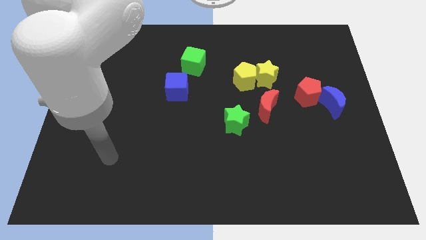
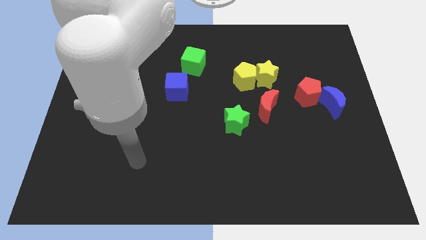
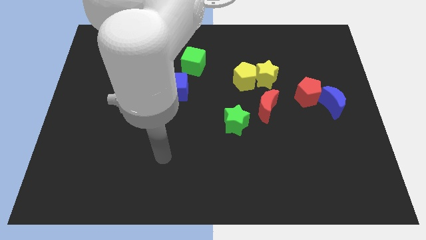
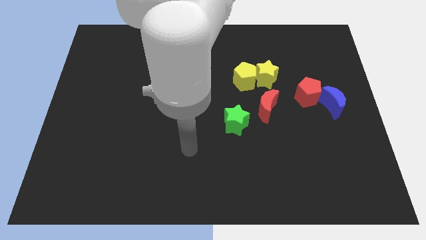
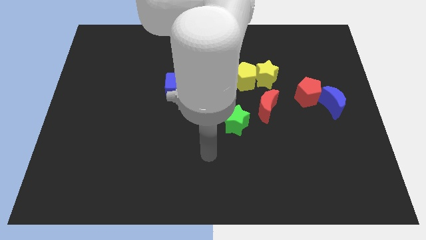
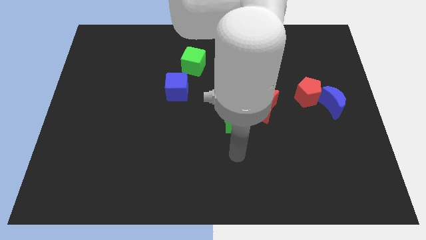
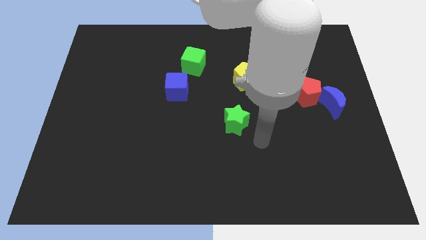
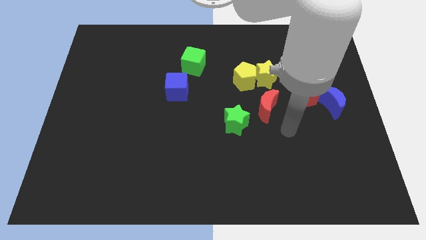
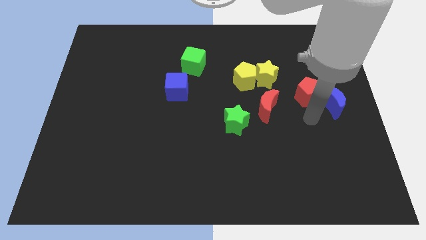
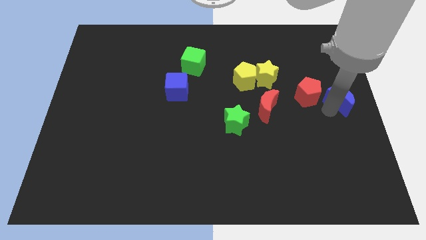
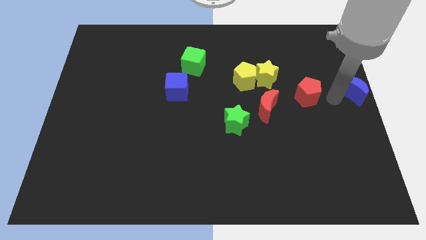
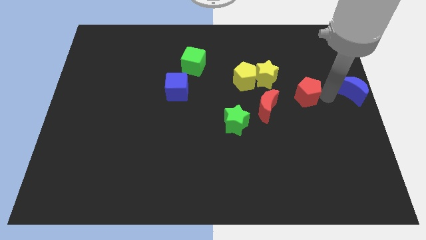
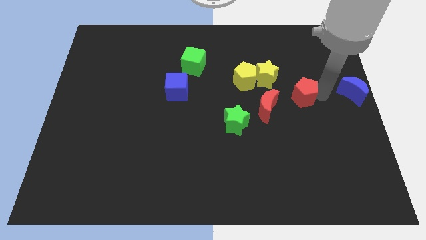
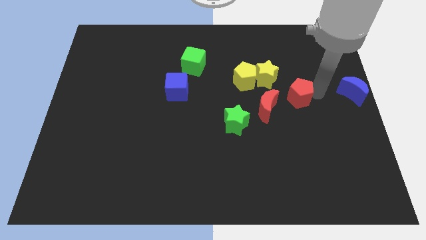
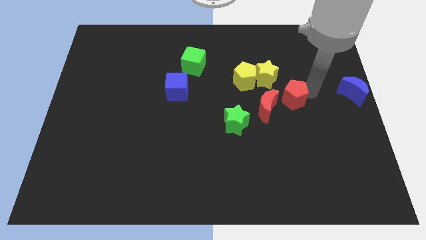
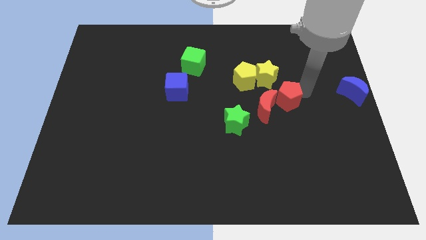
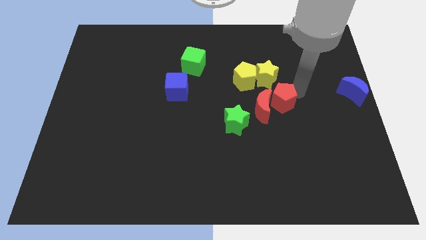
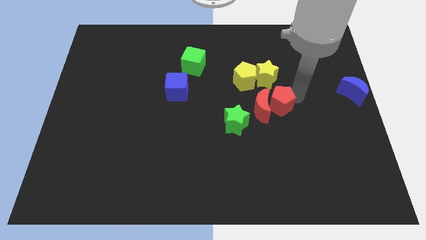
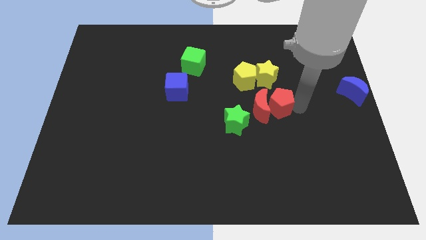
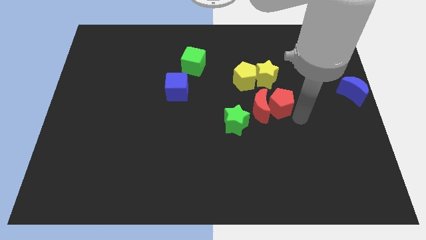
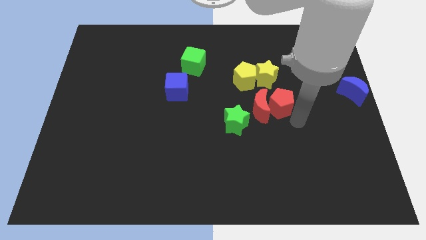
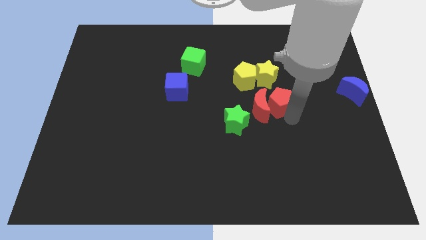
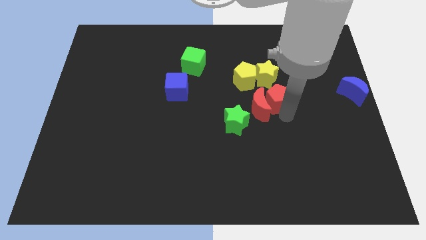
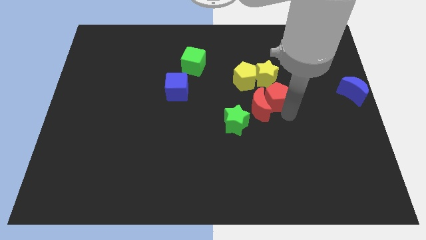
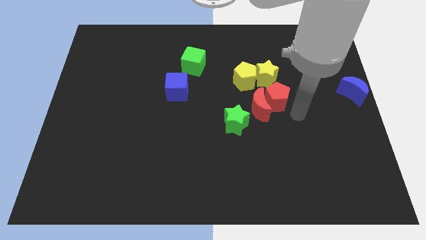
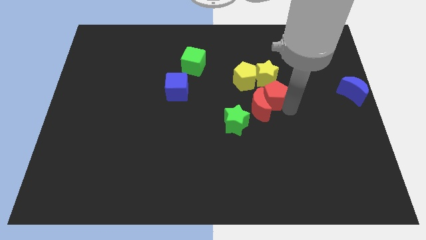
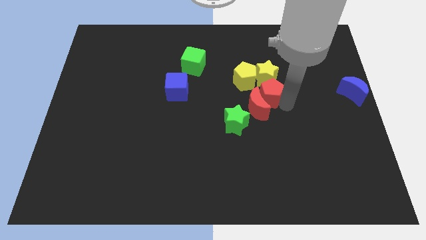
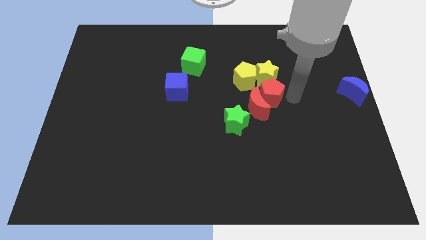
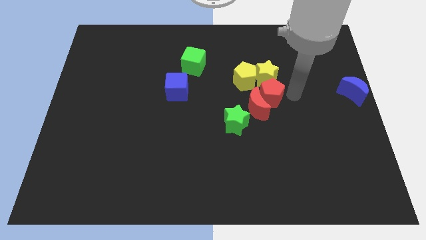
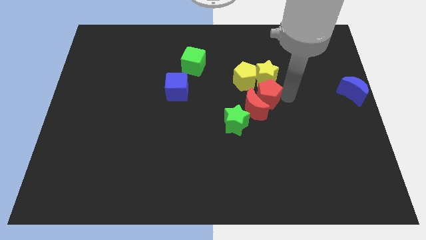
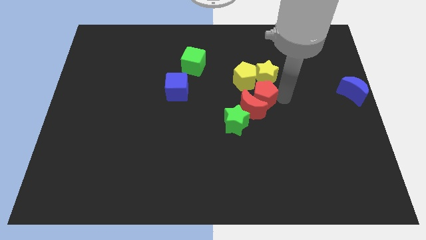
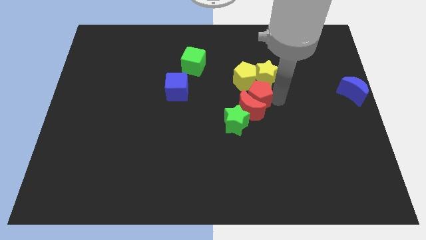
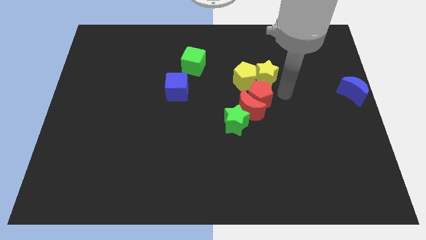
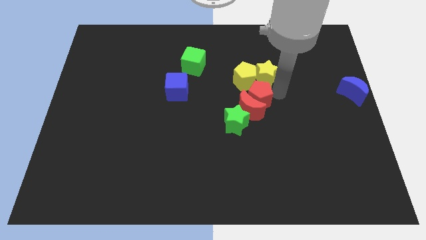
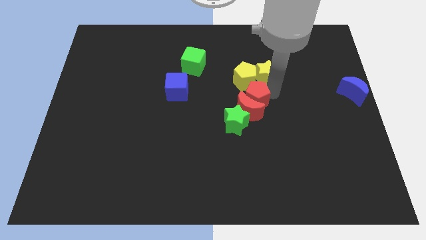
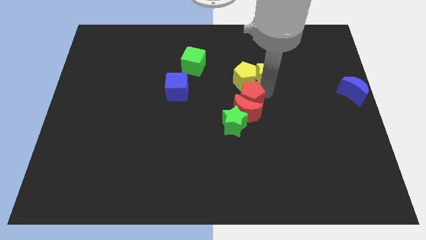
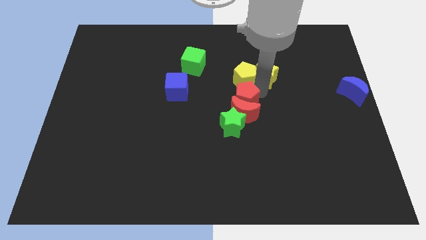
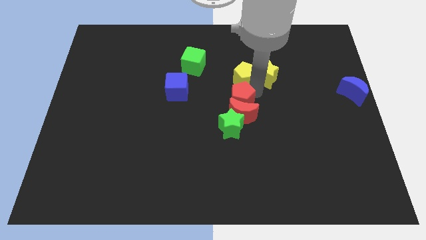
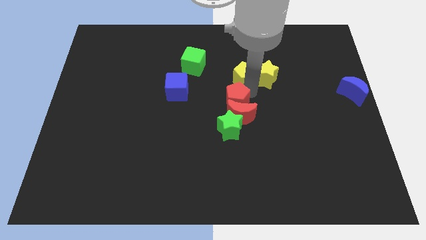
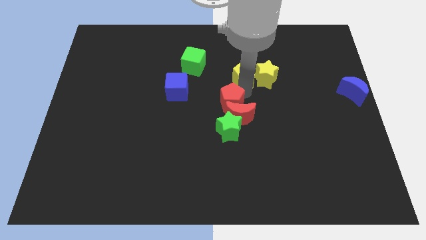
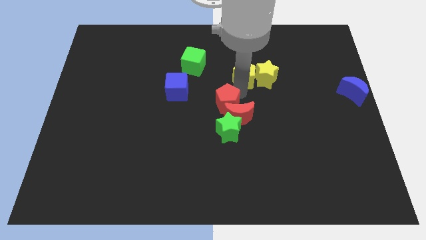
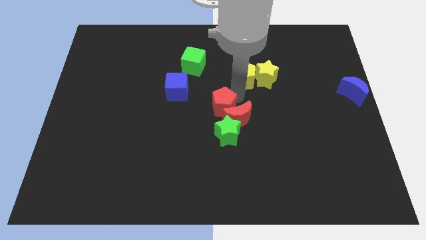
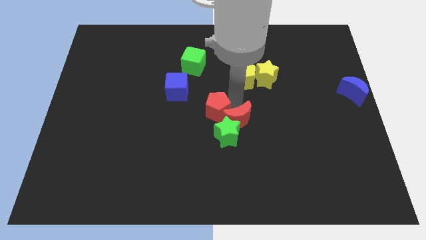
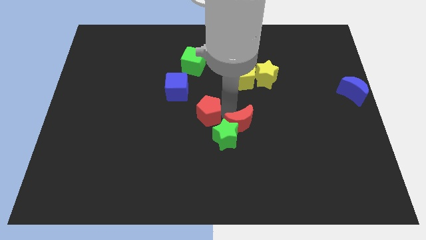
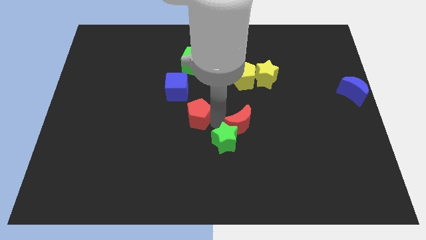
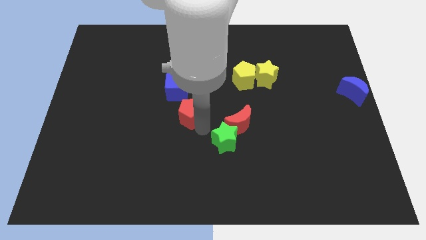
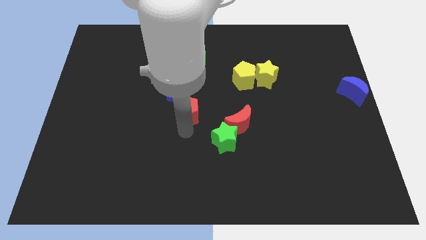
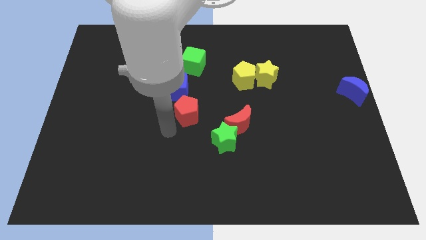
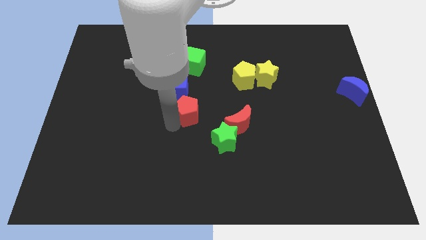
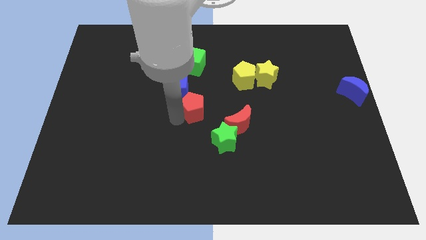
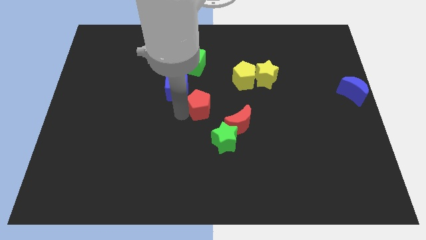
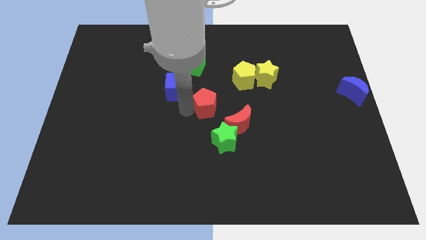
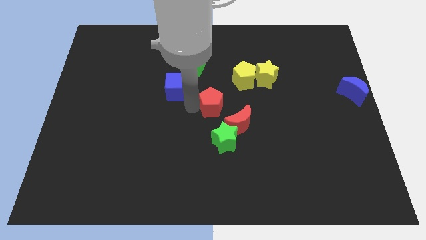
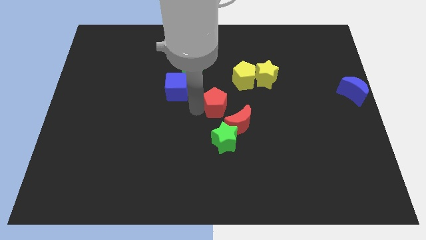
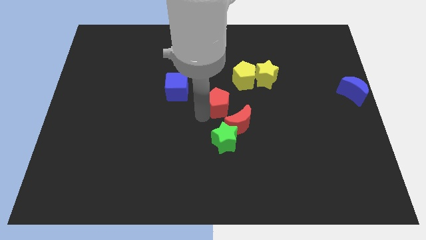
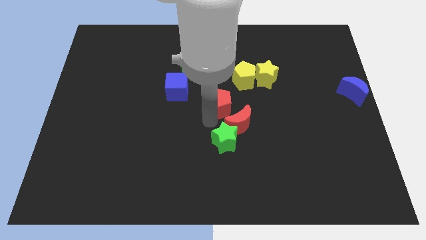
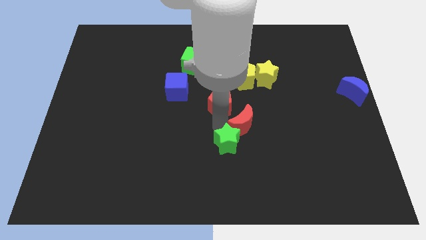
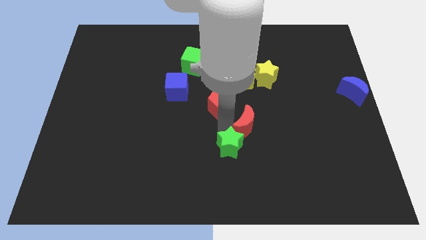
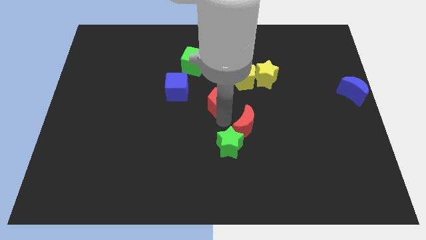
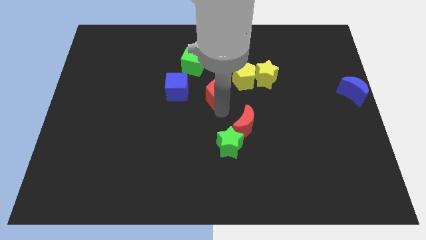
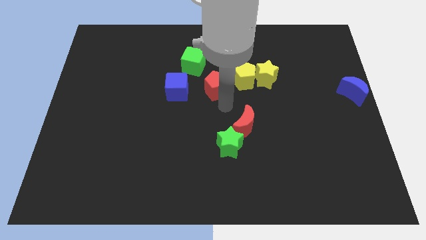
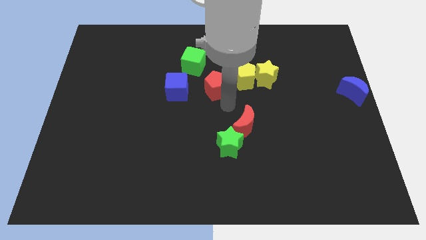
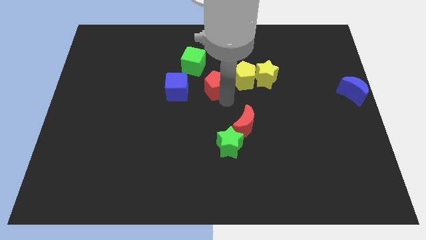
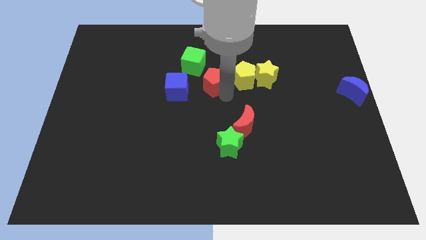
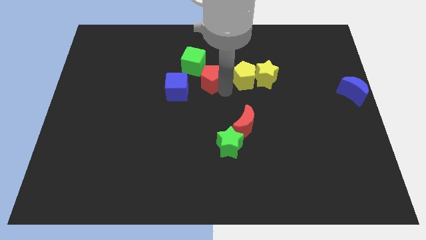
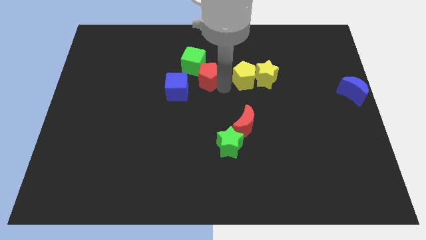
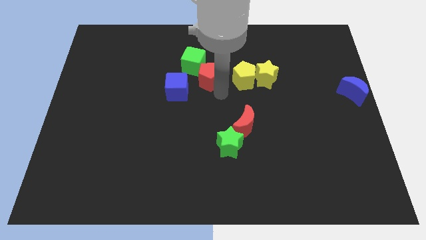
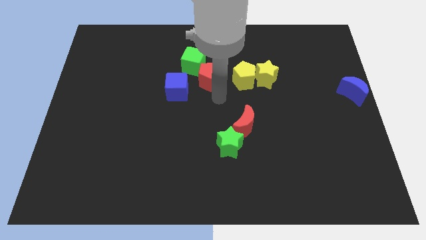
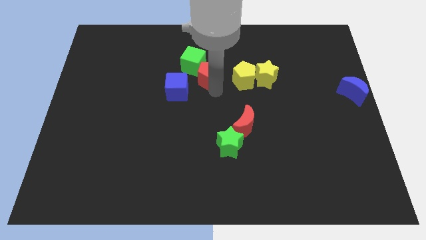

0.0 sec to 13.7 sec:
slide the red pentagon towards the green cube
